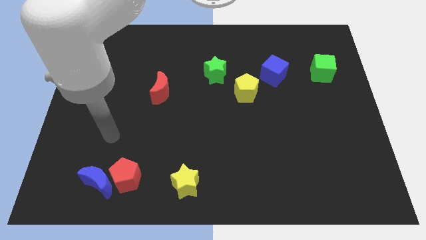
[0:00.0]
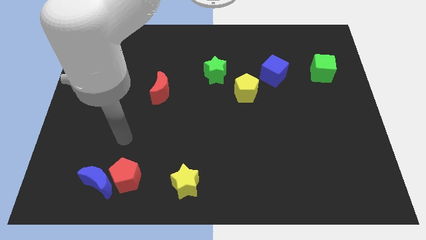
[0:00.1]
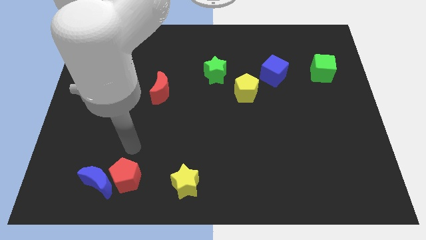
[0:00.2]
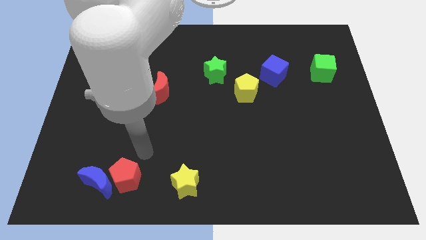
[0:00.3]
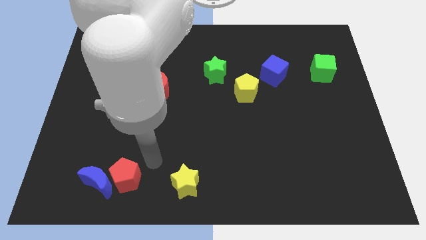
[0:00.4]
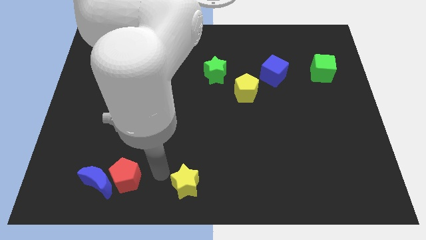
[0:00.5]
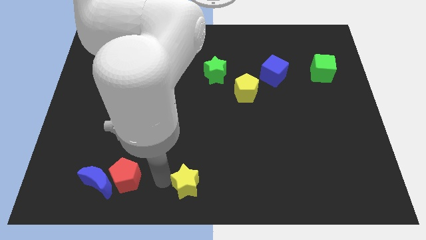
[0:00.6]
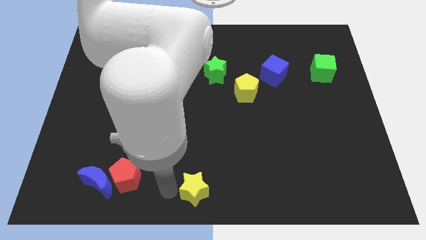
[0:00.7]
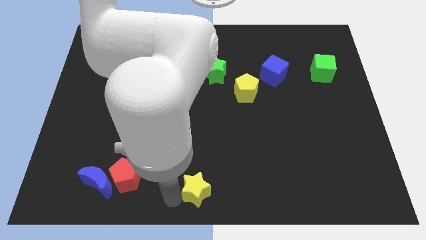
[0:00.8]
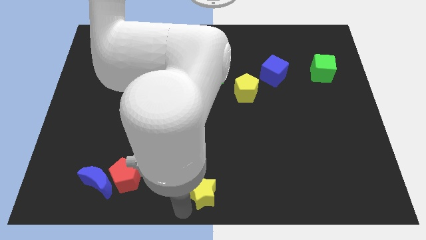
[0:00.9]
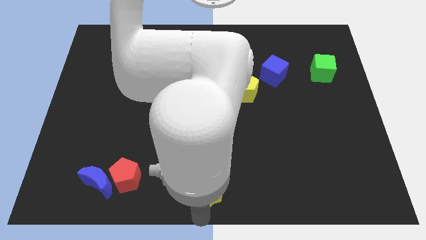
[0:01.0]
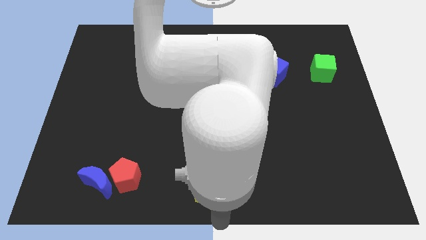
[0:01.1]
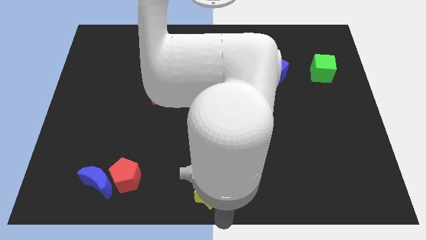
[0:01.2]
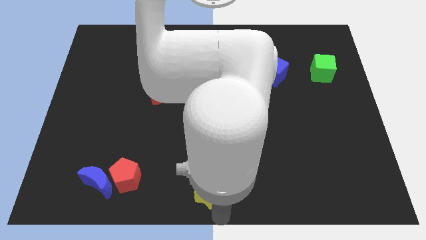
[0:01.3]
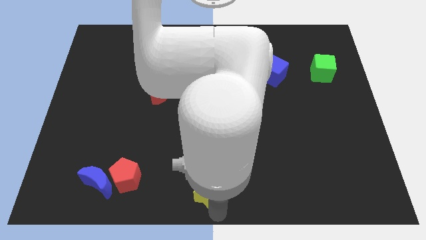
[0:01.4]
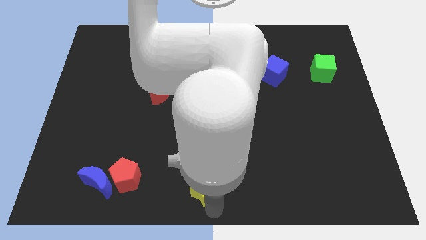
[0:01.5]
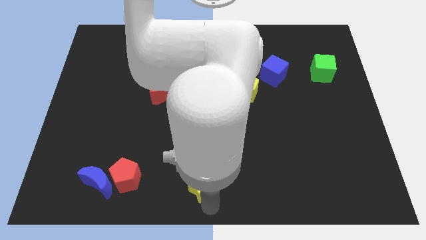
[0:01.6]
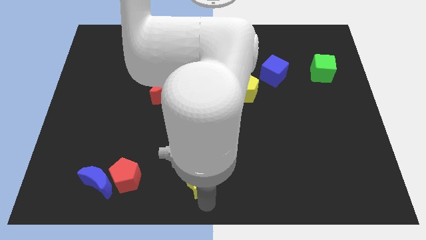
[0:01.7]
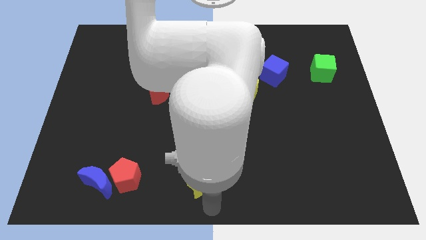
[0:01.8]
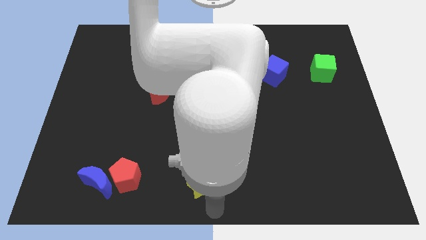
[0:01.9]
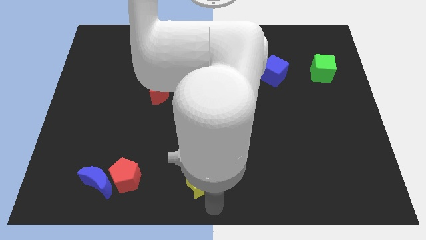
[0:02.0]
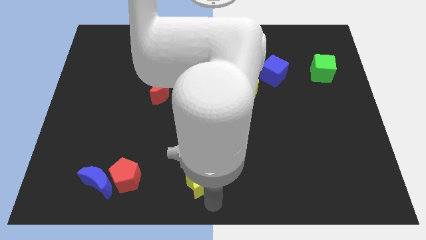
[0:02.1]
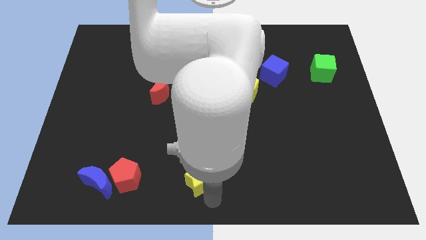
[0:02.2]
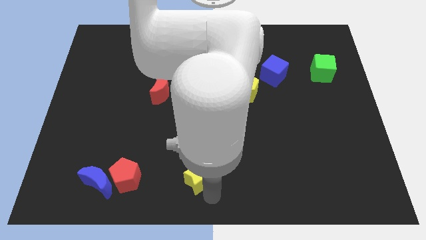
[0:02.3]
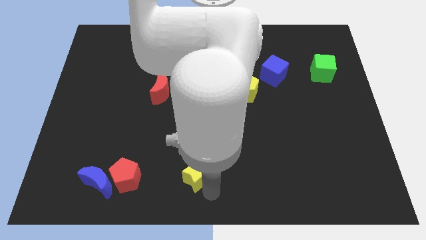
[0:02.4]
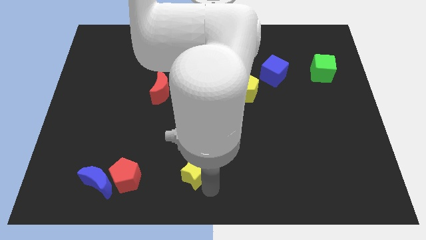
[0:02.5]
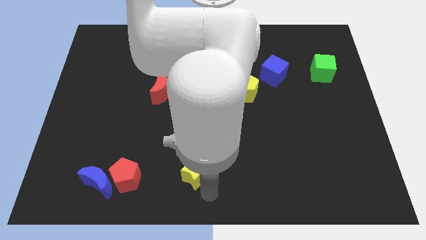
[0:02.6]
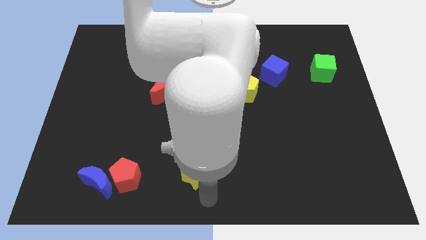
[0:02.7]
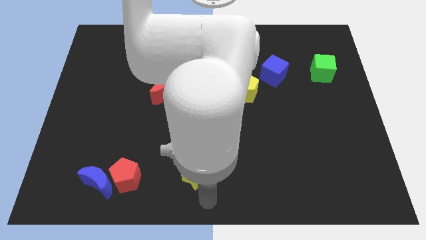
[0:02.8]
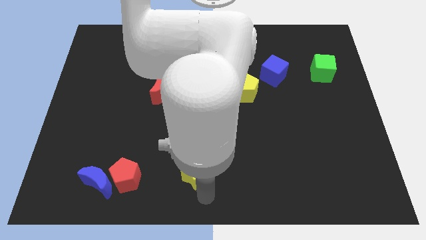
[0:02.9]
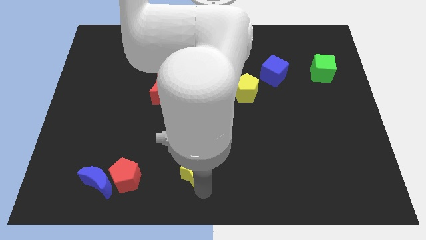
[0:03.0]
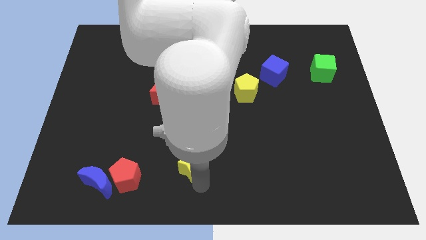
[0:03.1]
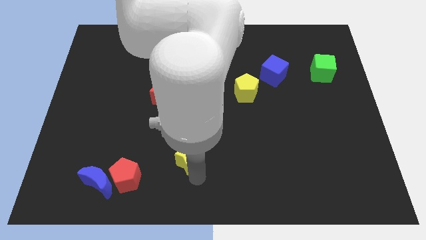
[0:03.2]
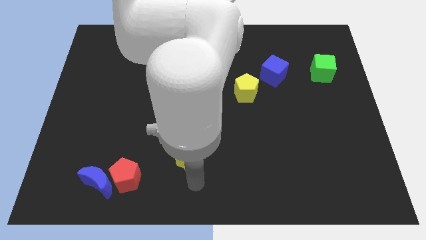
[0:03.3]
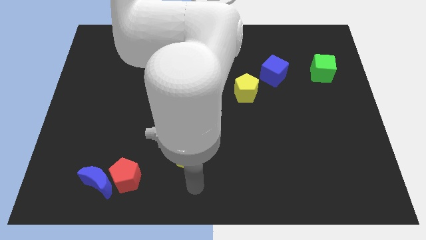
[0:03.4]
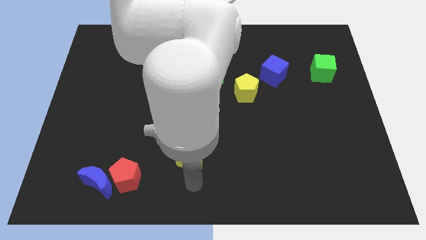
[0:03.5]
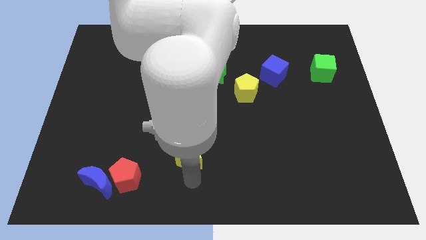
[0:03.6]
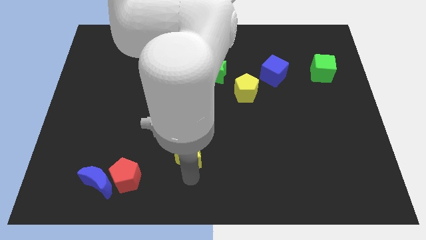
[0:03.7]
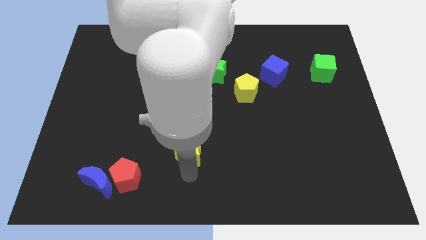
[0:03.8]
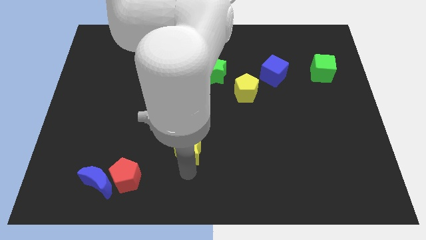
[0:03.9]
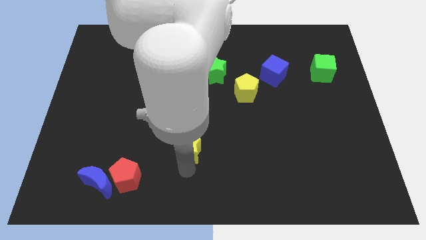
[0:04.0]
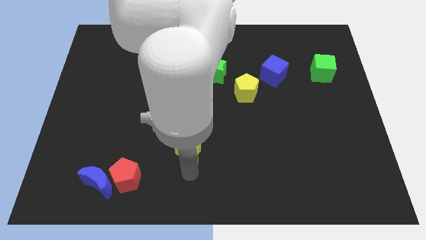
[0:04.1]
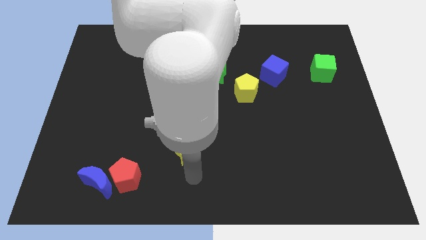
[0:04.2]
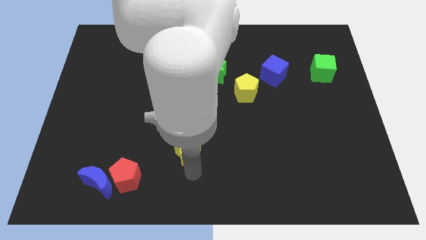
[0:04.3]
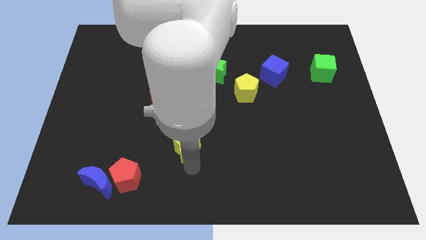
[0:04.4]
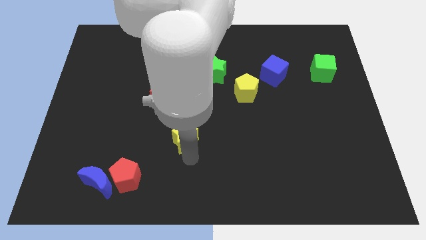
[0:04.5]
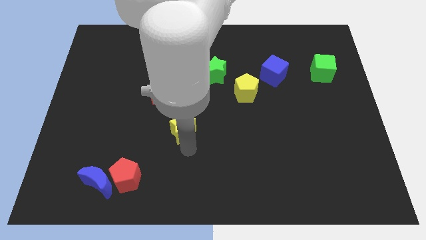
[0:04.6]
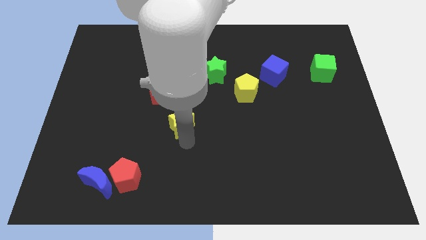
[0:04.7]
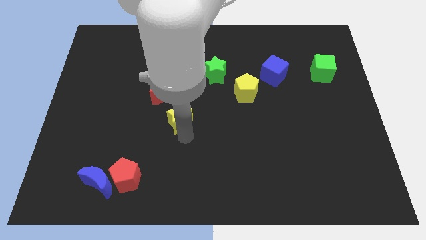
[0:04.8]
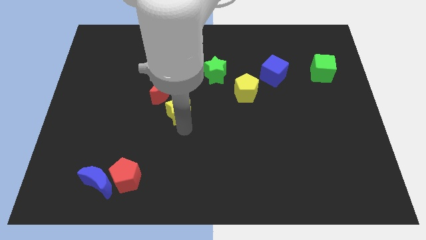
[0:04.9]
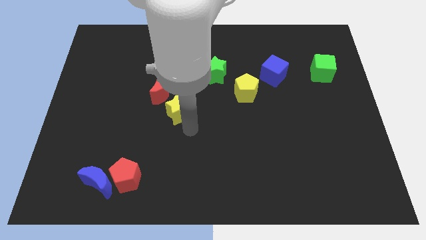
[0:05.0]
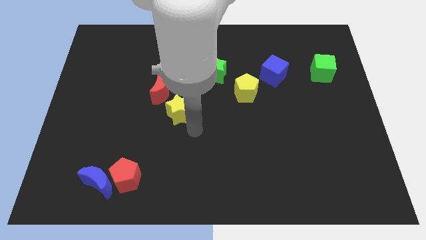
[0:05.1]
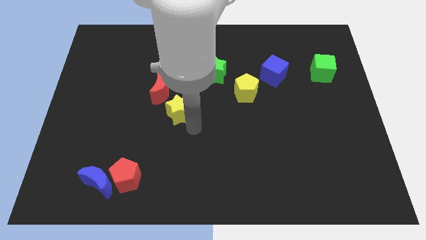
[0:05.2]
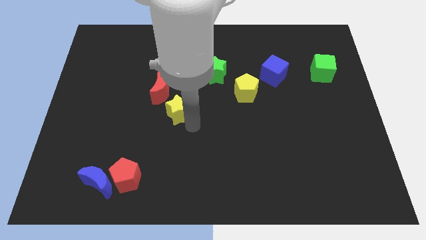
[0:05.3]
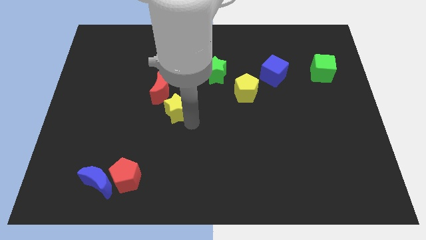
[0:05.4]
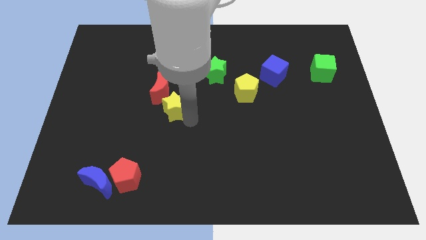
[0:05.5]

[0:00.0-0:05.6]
push the yellow star next to the red moon

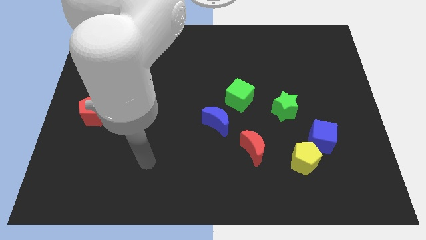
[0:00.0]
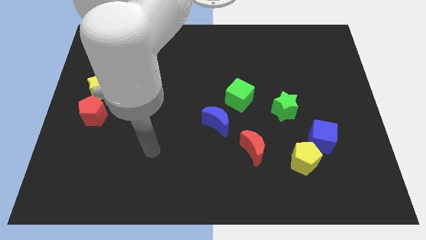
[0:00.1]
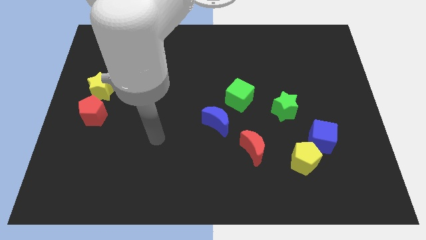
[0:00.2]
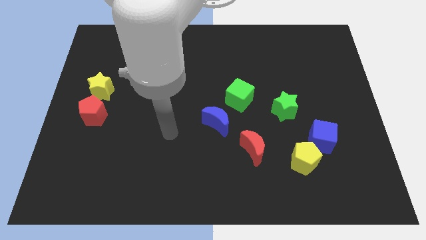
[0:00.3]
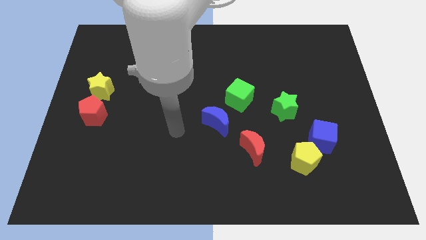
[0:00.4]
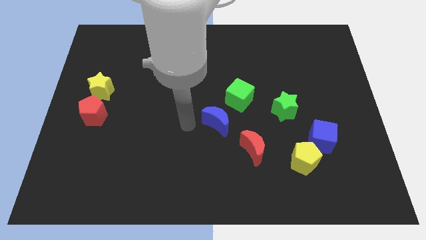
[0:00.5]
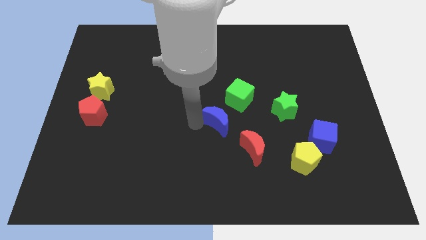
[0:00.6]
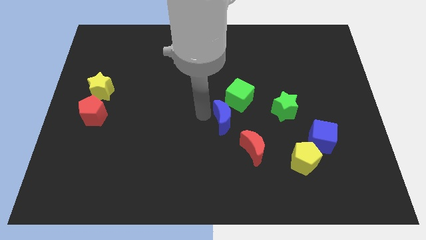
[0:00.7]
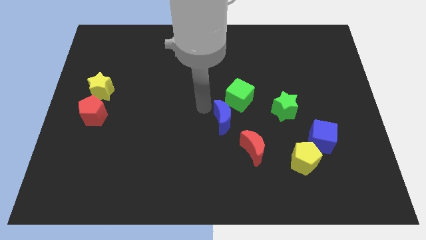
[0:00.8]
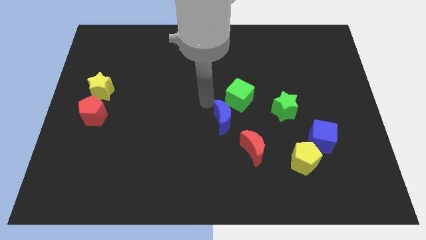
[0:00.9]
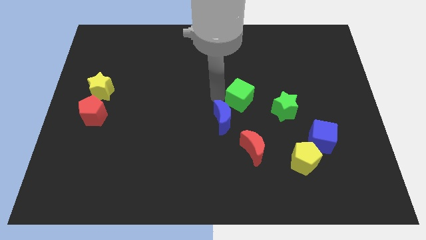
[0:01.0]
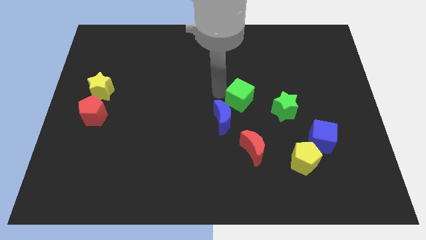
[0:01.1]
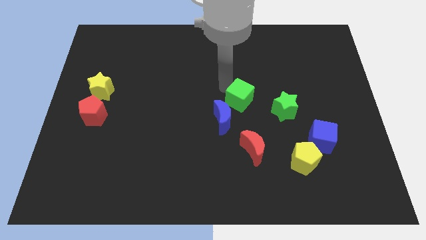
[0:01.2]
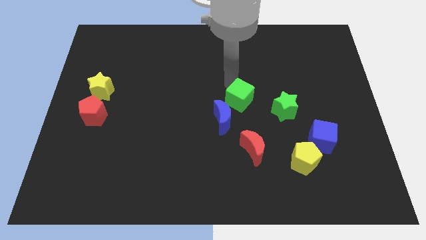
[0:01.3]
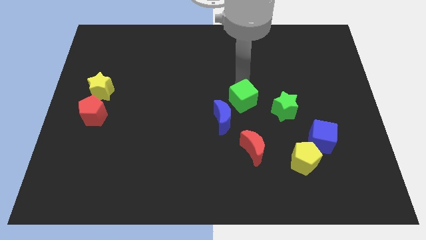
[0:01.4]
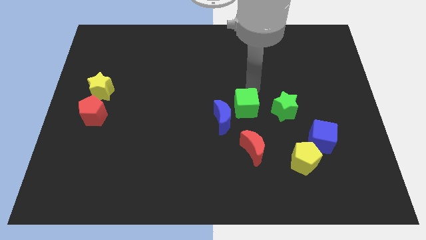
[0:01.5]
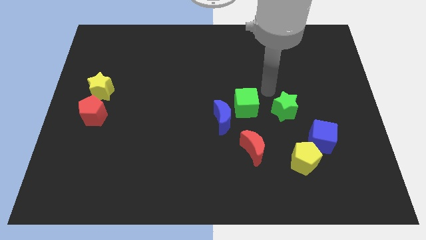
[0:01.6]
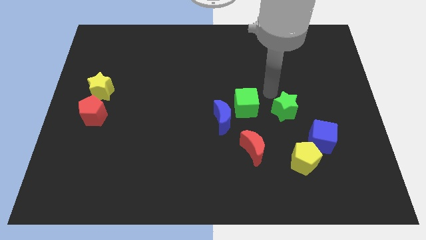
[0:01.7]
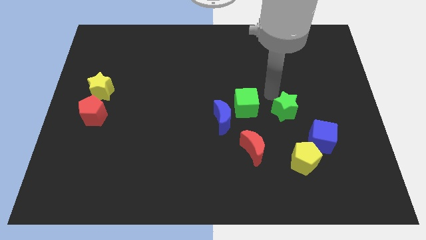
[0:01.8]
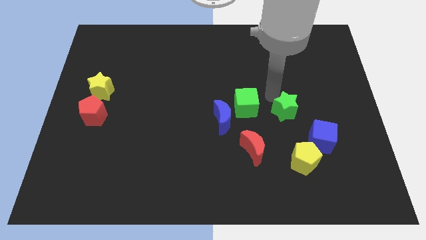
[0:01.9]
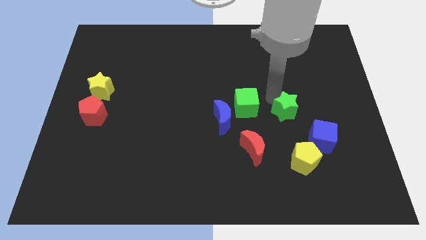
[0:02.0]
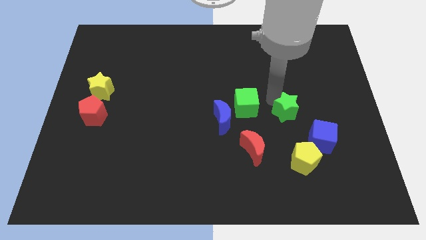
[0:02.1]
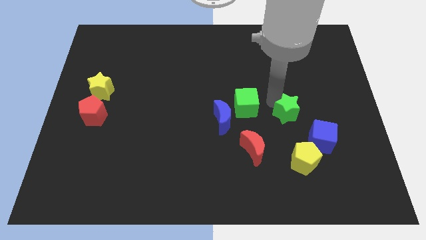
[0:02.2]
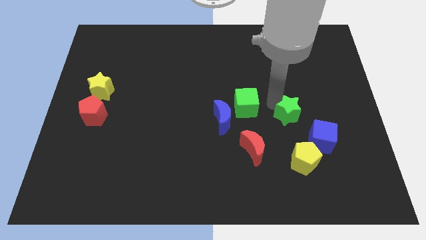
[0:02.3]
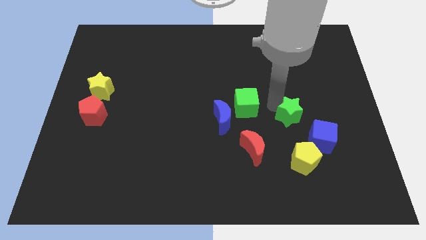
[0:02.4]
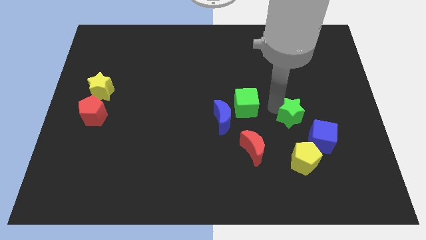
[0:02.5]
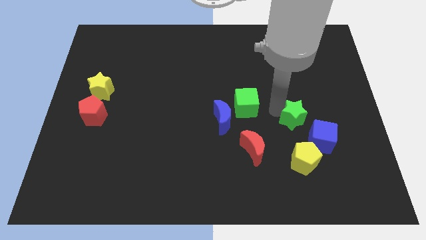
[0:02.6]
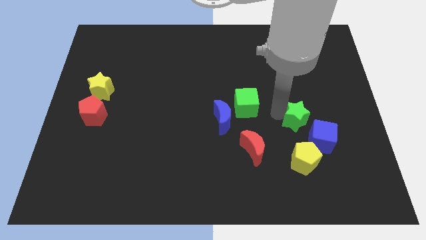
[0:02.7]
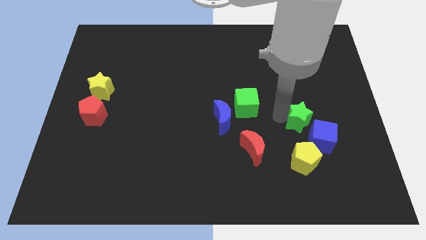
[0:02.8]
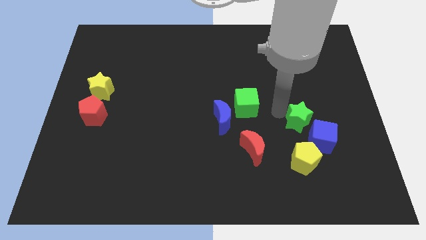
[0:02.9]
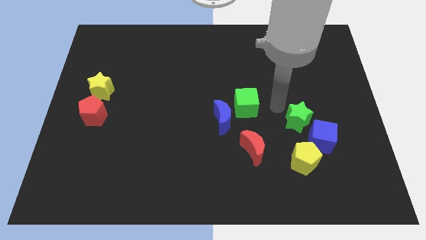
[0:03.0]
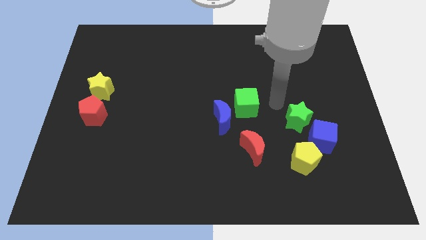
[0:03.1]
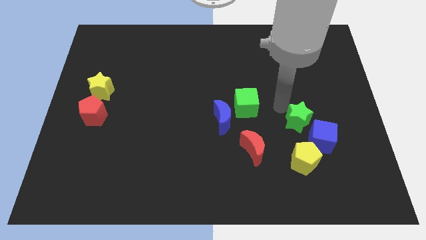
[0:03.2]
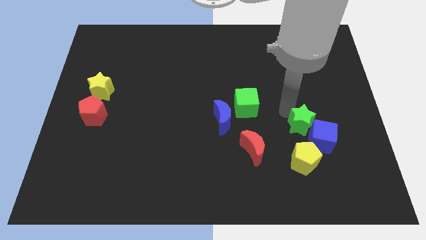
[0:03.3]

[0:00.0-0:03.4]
push the green star next to the blue cube
